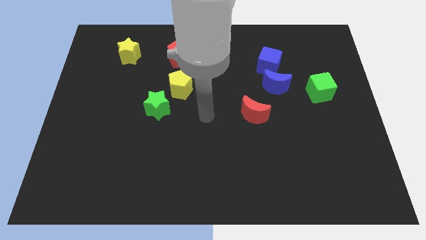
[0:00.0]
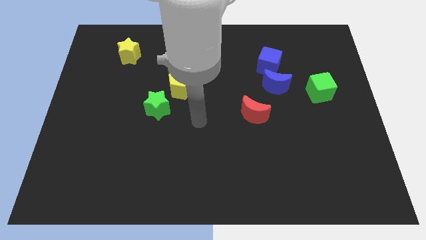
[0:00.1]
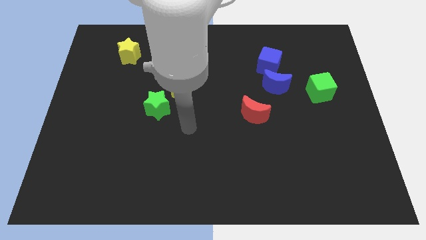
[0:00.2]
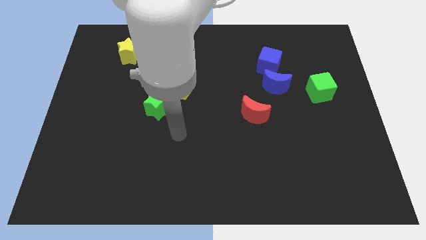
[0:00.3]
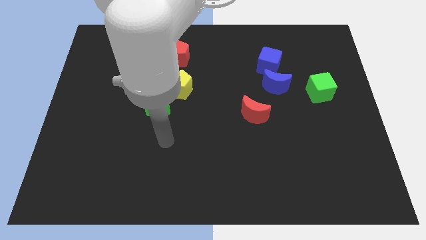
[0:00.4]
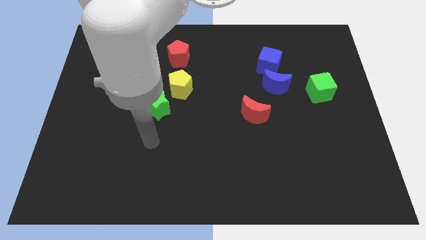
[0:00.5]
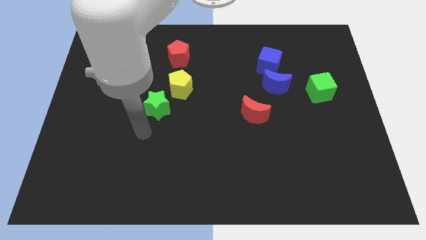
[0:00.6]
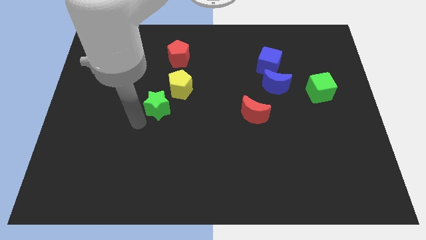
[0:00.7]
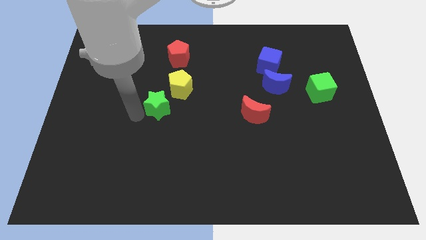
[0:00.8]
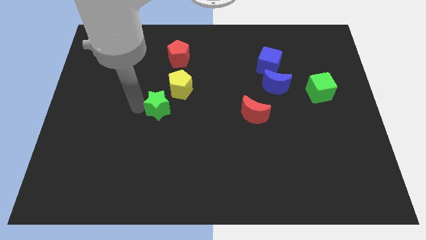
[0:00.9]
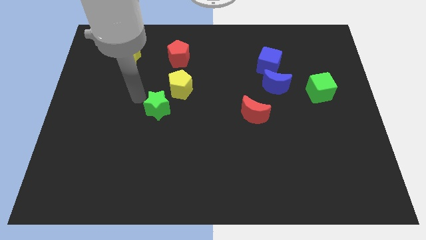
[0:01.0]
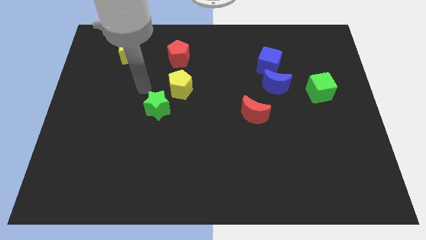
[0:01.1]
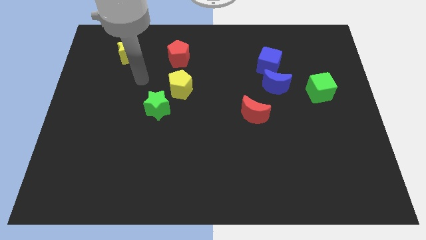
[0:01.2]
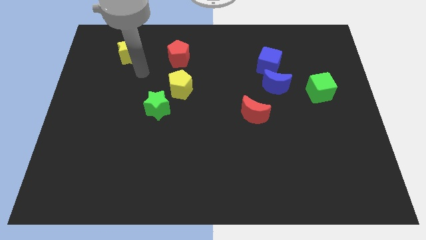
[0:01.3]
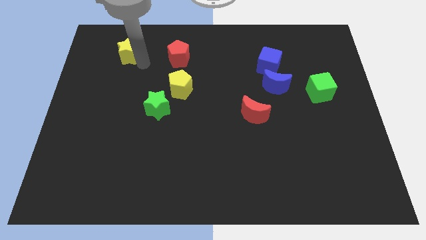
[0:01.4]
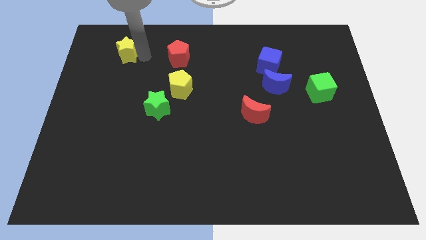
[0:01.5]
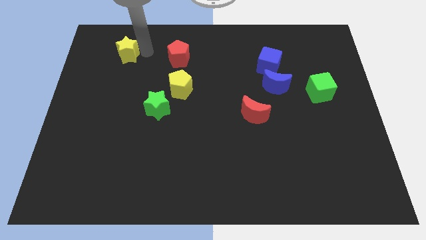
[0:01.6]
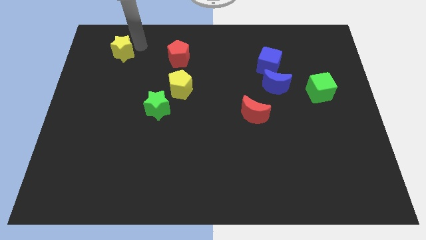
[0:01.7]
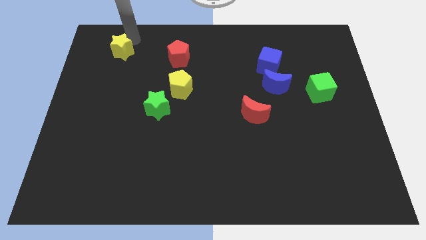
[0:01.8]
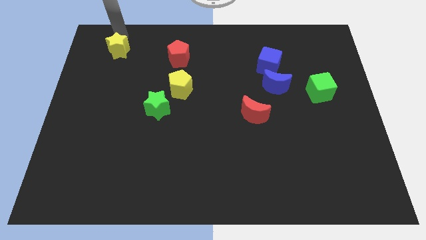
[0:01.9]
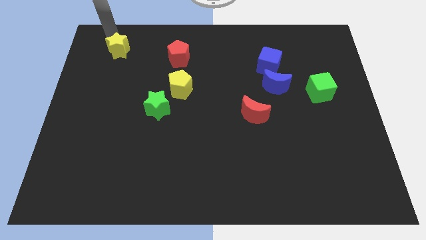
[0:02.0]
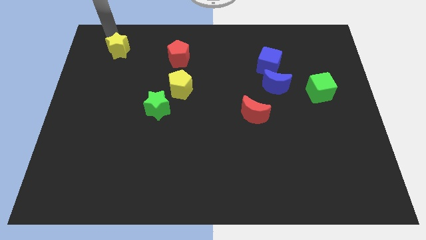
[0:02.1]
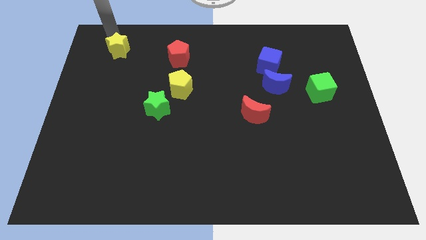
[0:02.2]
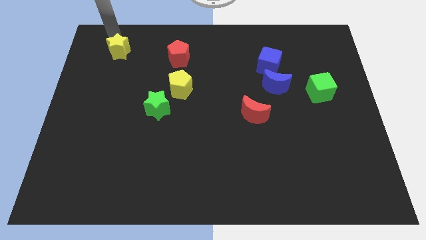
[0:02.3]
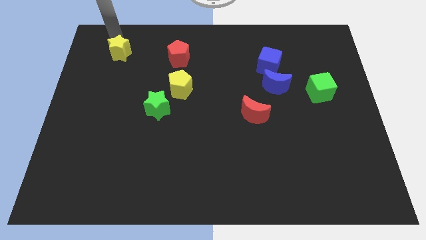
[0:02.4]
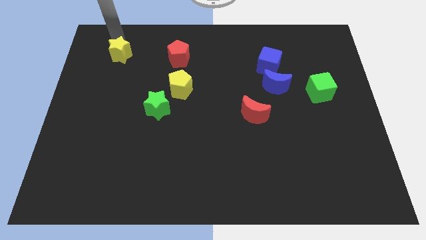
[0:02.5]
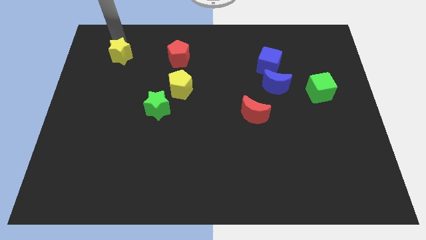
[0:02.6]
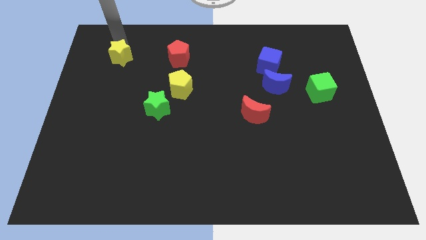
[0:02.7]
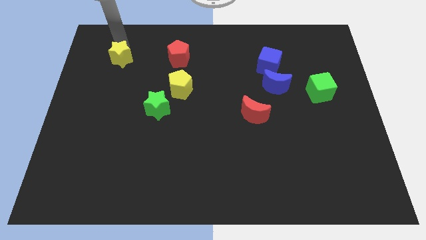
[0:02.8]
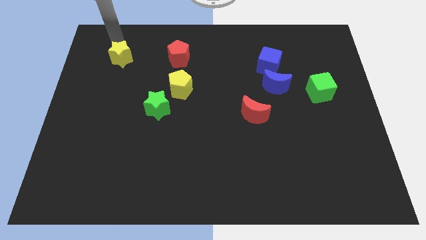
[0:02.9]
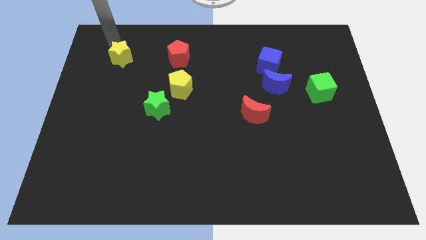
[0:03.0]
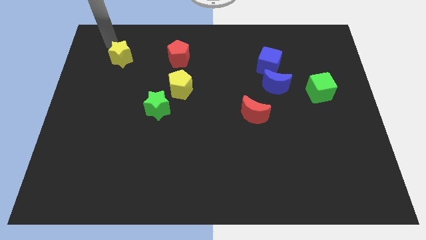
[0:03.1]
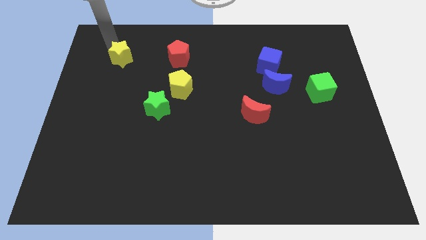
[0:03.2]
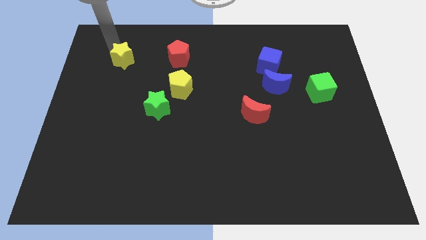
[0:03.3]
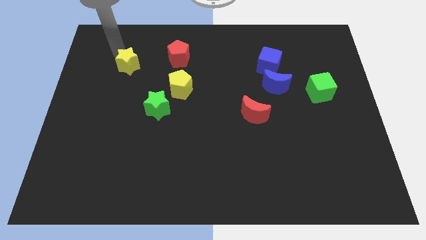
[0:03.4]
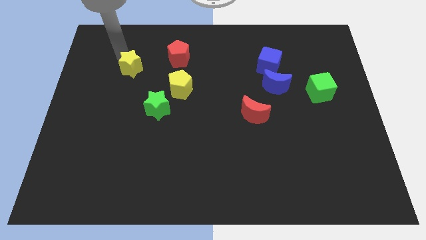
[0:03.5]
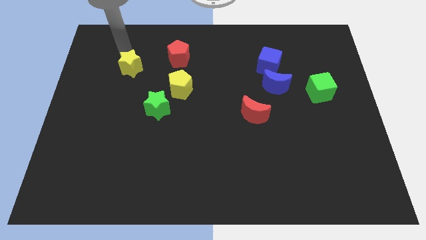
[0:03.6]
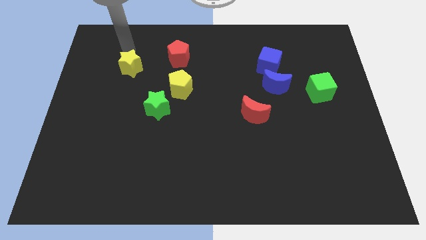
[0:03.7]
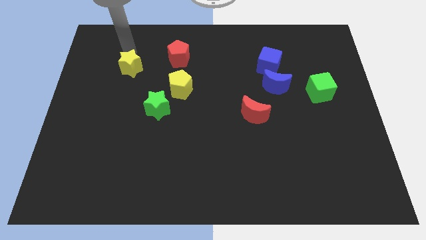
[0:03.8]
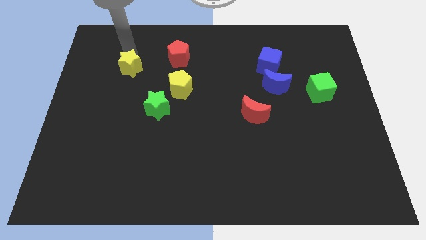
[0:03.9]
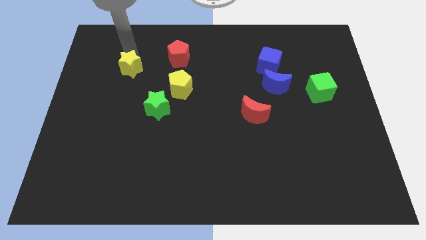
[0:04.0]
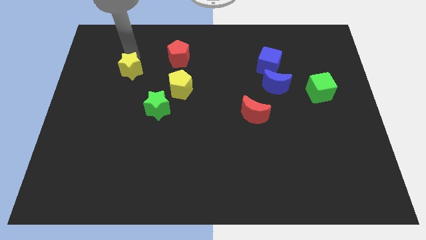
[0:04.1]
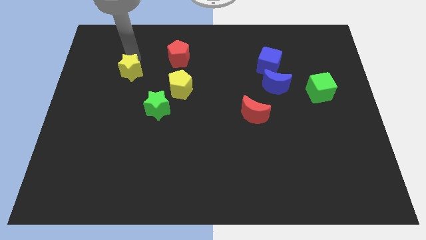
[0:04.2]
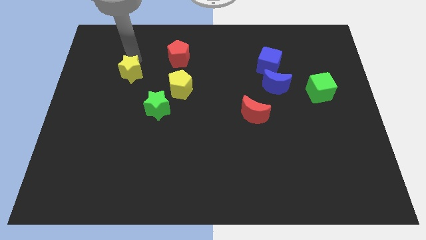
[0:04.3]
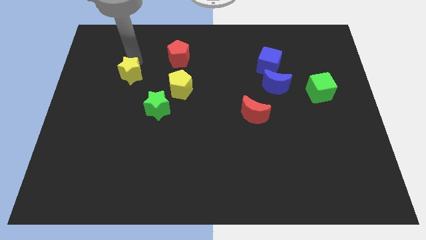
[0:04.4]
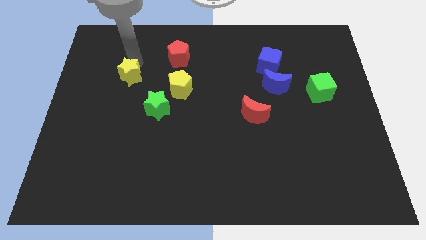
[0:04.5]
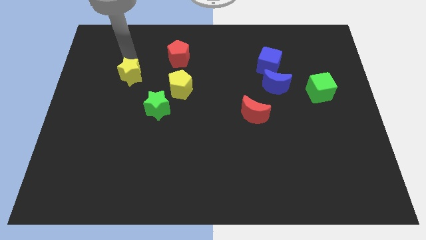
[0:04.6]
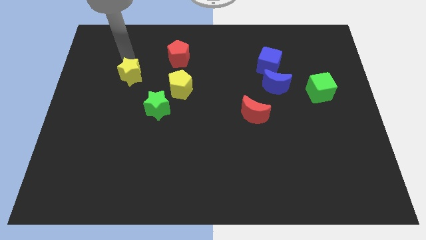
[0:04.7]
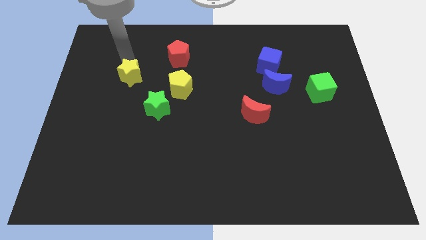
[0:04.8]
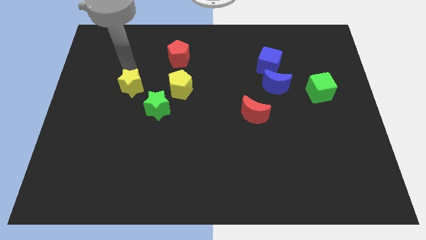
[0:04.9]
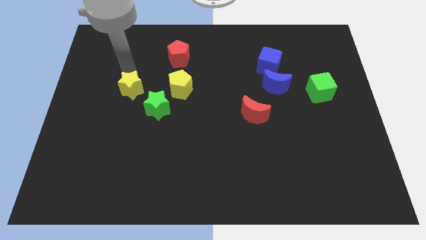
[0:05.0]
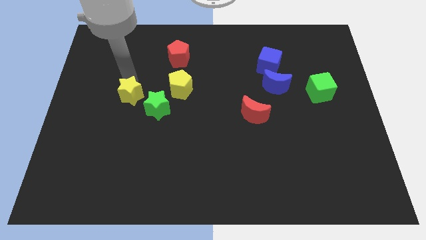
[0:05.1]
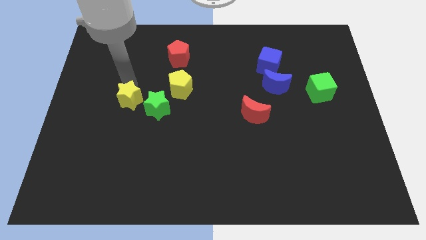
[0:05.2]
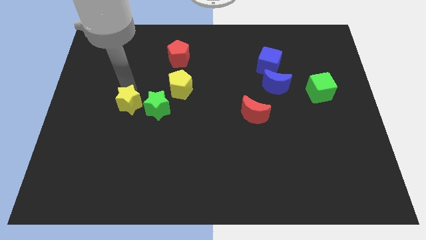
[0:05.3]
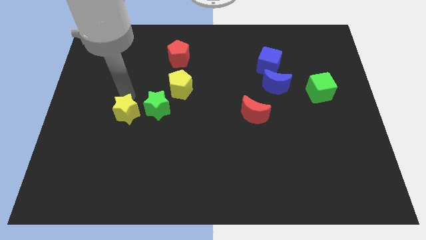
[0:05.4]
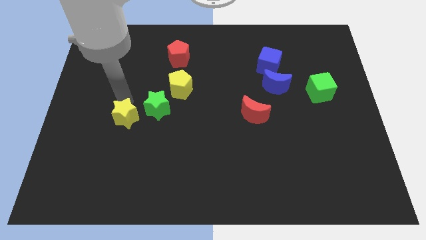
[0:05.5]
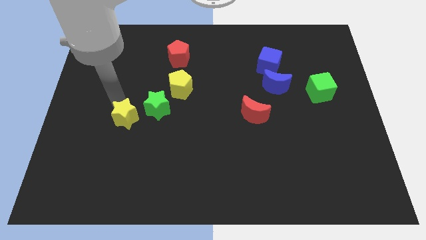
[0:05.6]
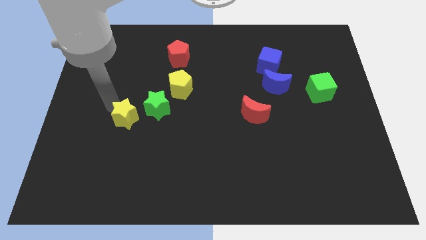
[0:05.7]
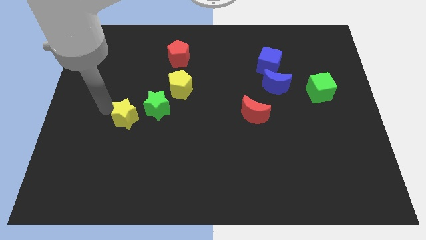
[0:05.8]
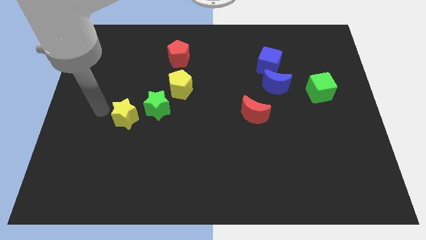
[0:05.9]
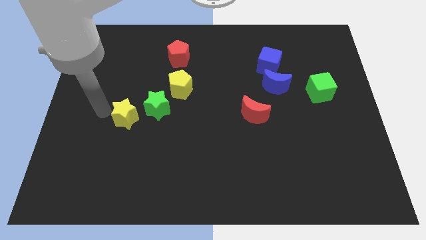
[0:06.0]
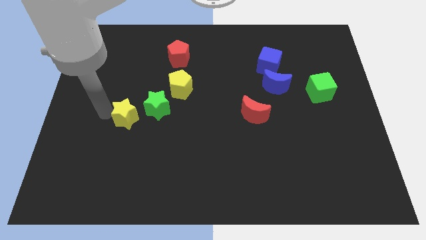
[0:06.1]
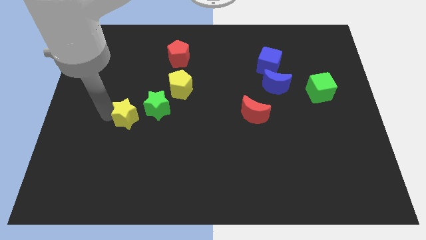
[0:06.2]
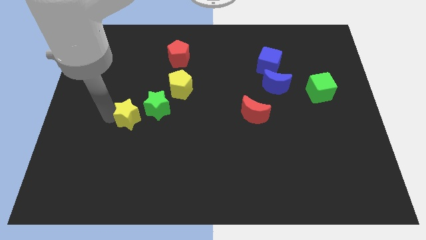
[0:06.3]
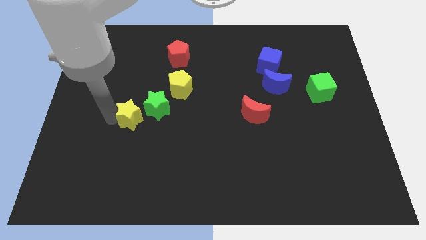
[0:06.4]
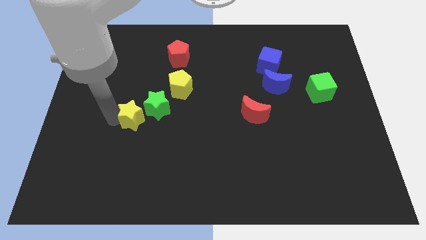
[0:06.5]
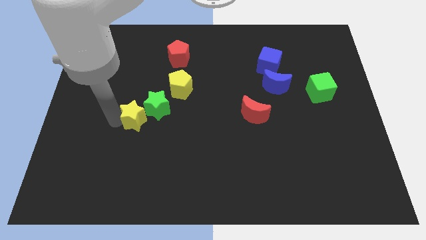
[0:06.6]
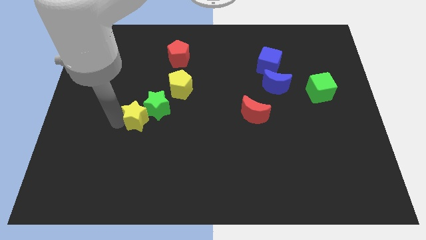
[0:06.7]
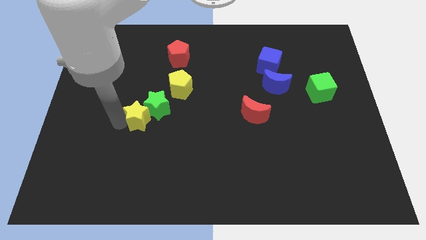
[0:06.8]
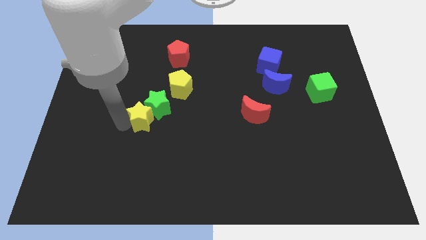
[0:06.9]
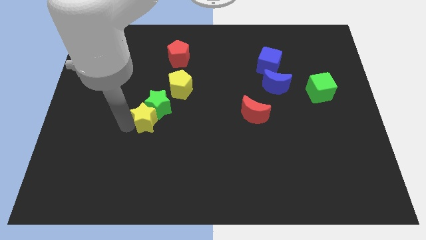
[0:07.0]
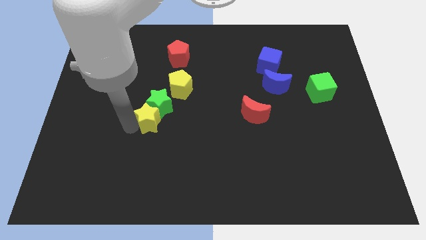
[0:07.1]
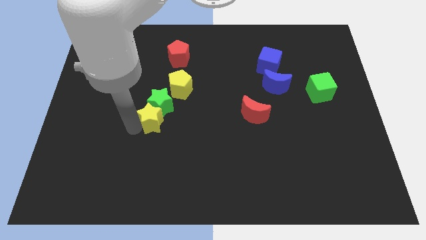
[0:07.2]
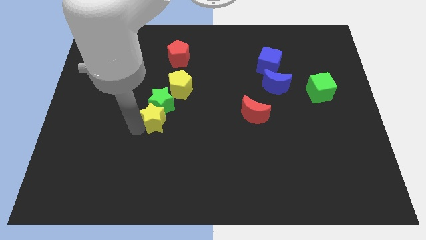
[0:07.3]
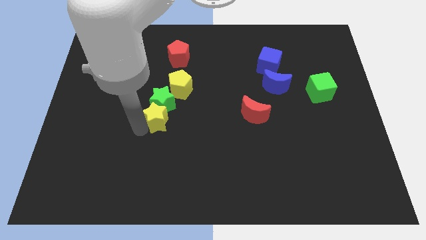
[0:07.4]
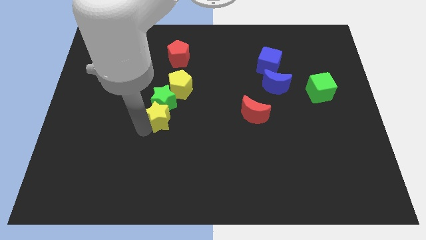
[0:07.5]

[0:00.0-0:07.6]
push the yellow star to the bottom of the yellow pentagon
